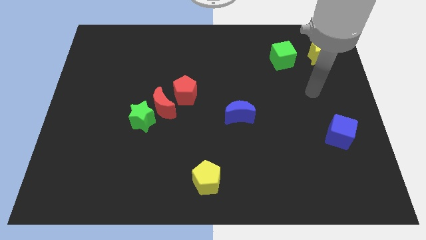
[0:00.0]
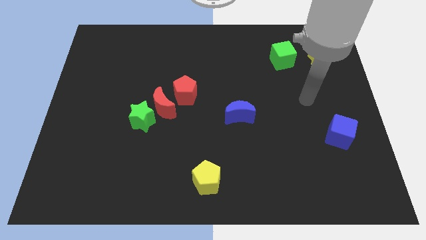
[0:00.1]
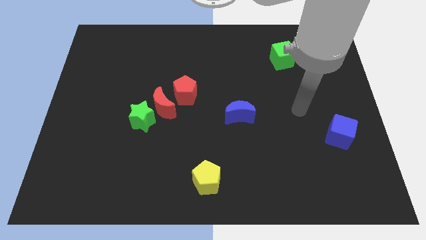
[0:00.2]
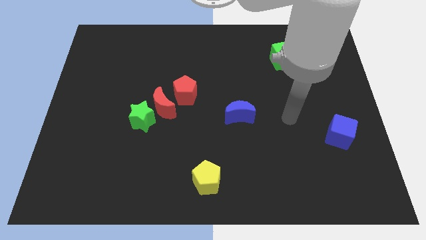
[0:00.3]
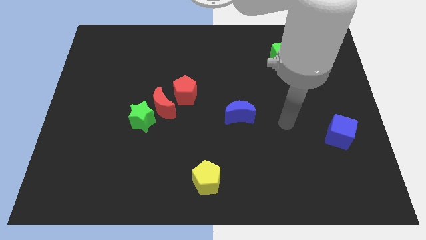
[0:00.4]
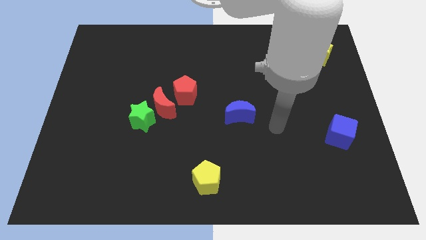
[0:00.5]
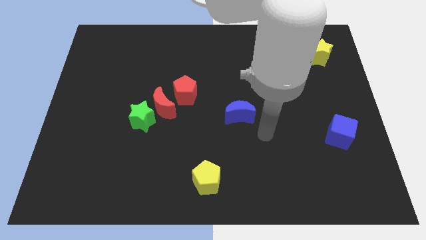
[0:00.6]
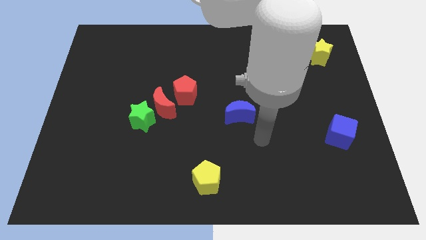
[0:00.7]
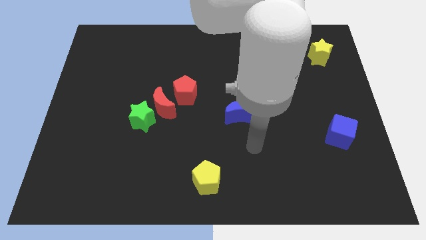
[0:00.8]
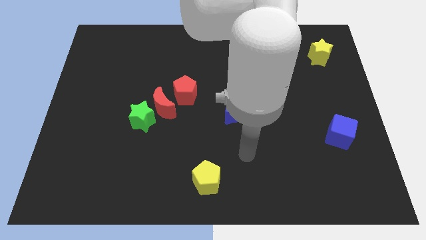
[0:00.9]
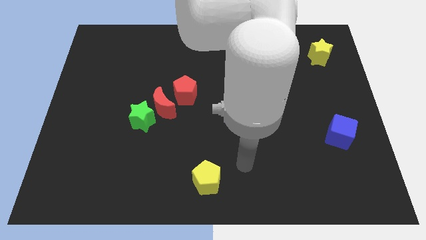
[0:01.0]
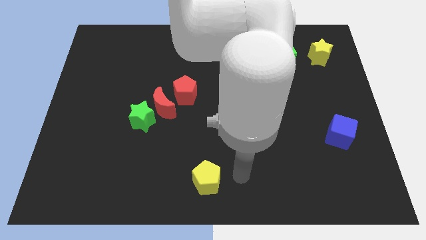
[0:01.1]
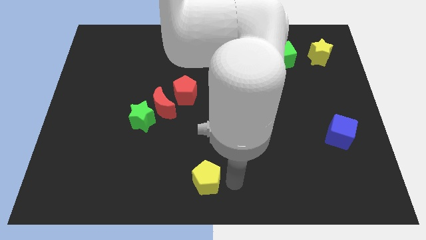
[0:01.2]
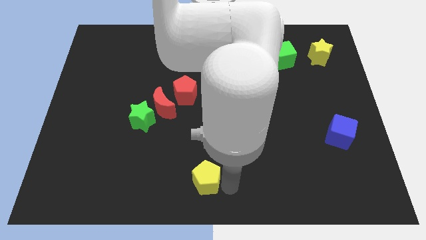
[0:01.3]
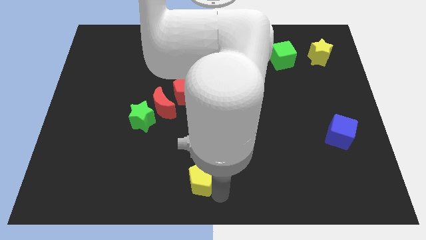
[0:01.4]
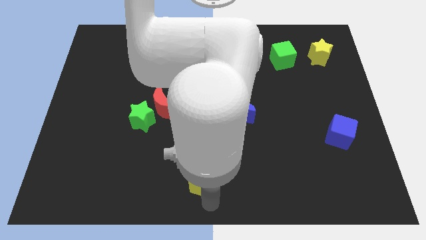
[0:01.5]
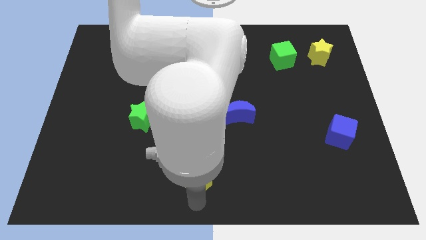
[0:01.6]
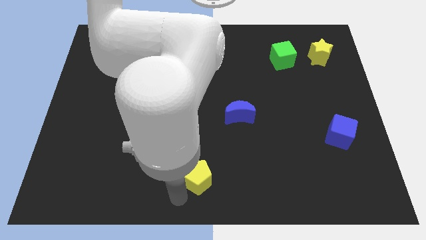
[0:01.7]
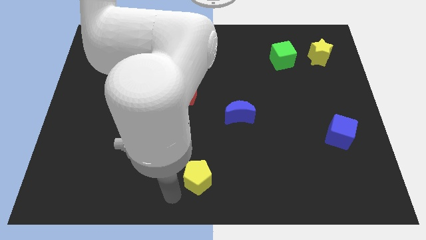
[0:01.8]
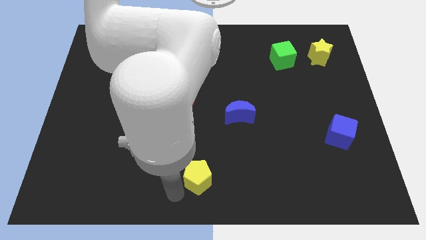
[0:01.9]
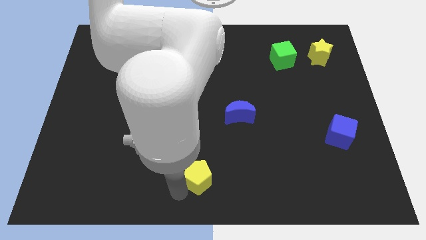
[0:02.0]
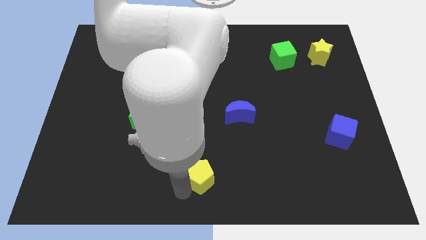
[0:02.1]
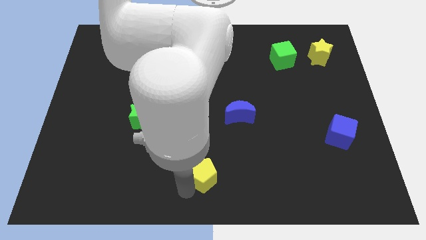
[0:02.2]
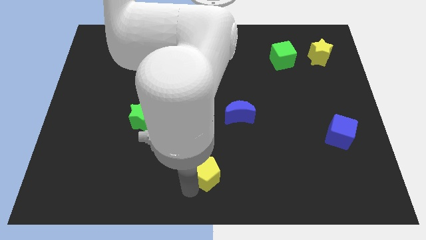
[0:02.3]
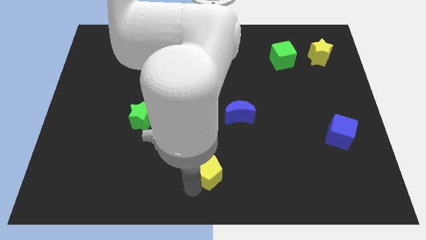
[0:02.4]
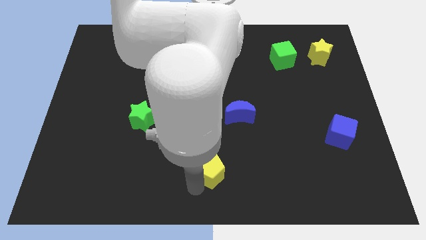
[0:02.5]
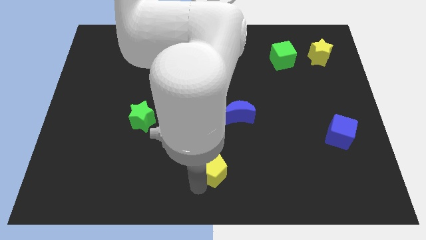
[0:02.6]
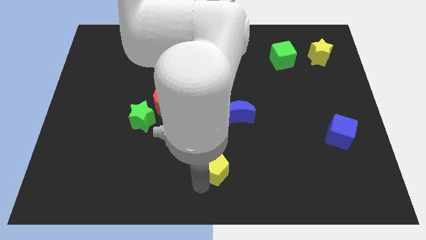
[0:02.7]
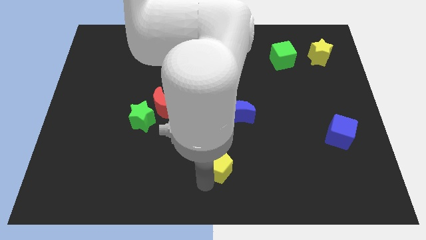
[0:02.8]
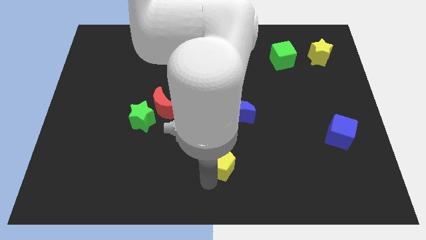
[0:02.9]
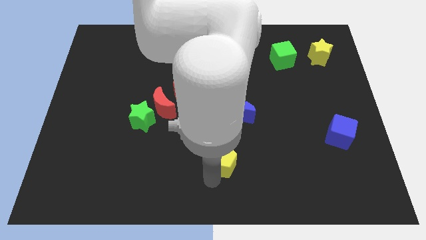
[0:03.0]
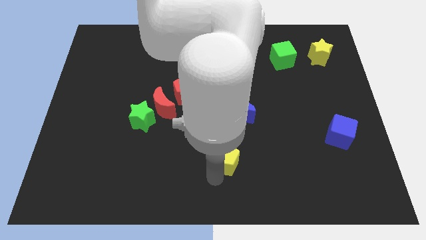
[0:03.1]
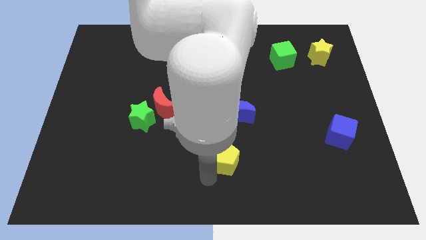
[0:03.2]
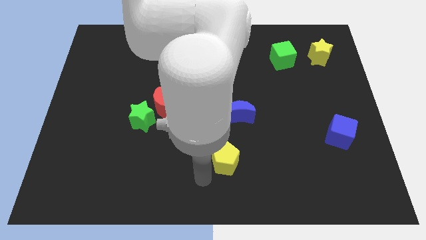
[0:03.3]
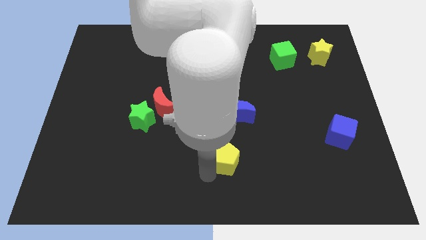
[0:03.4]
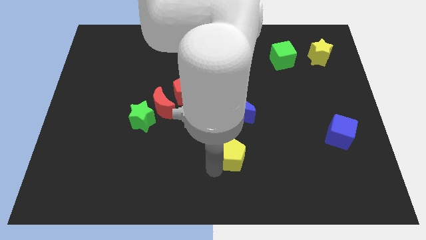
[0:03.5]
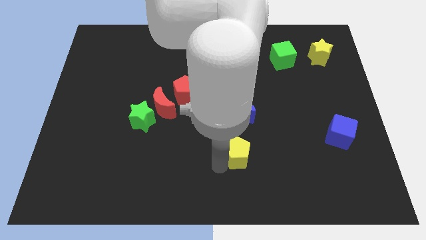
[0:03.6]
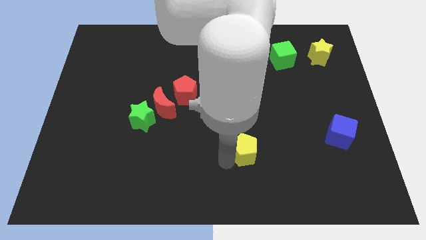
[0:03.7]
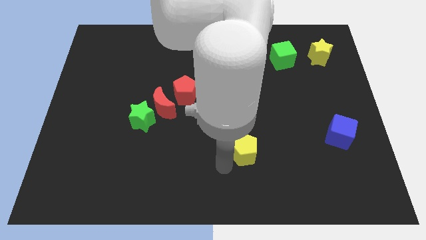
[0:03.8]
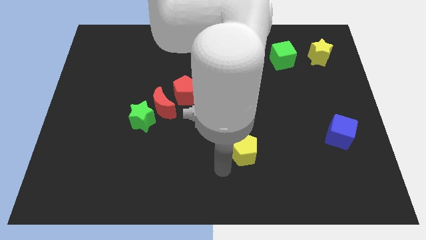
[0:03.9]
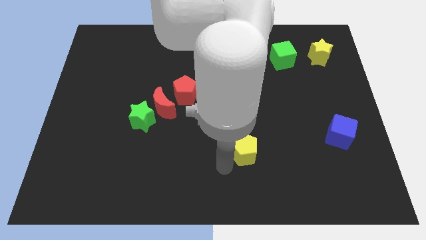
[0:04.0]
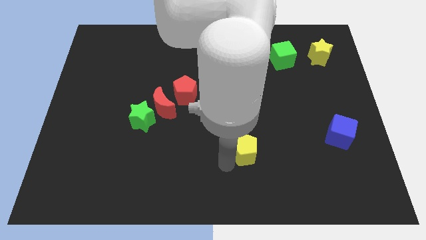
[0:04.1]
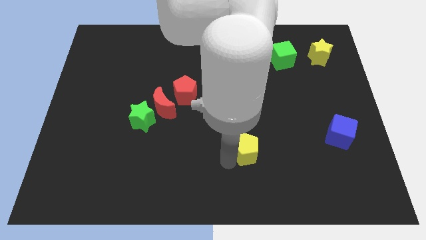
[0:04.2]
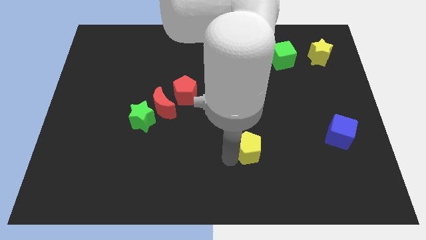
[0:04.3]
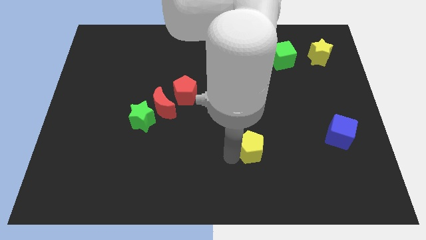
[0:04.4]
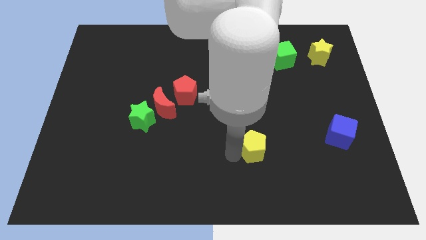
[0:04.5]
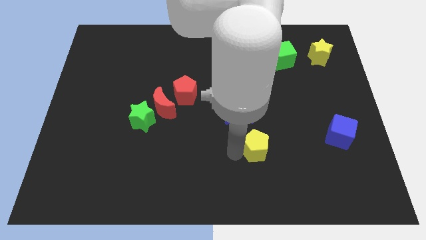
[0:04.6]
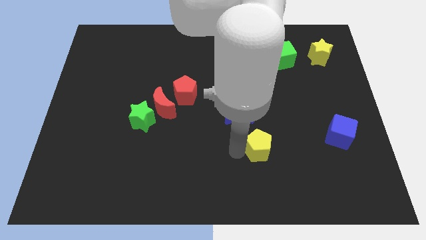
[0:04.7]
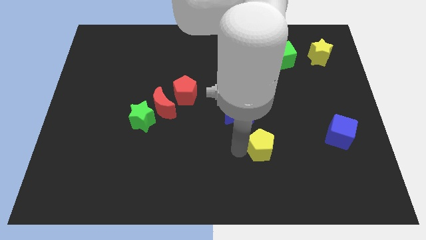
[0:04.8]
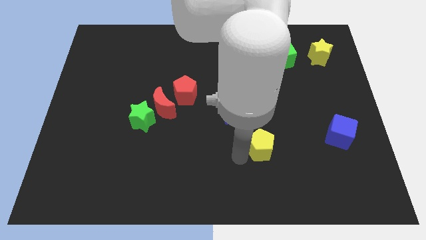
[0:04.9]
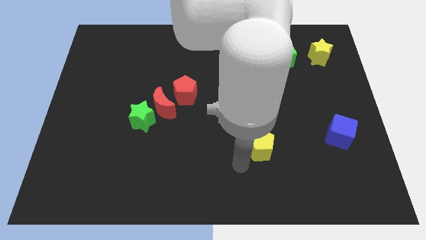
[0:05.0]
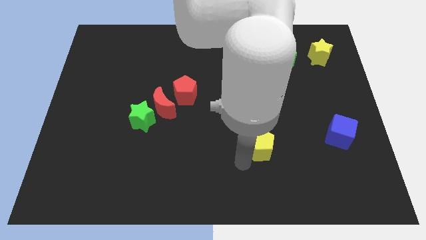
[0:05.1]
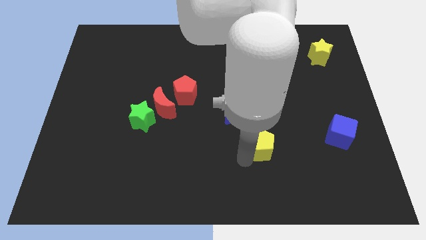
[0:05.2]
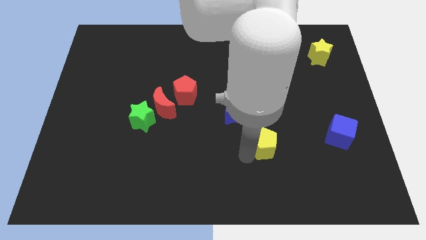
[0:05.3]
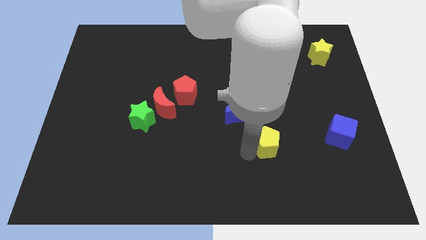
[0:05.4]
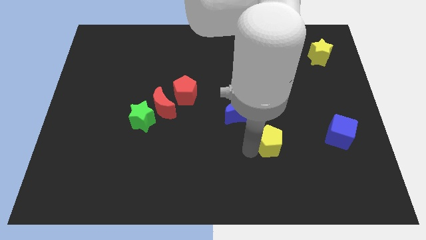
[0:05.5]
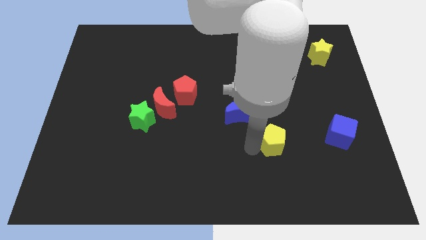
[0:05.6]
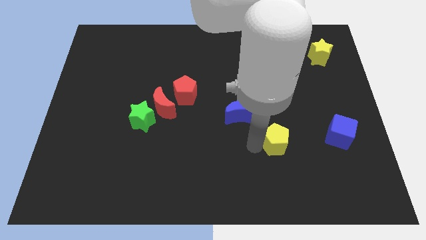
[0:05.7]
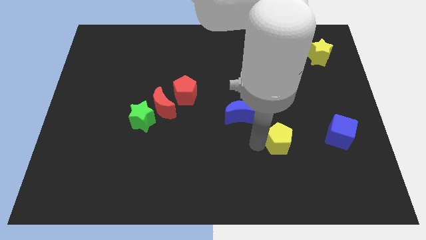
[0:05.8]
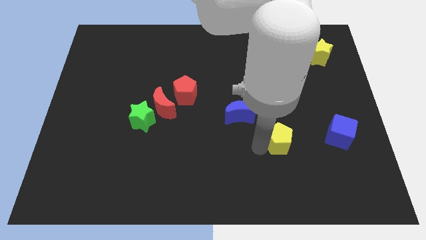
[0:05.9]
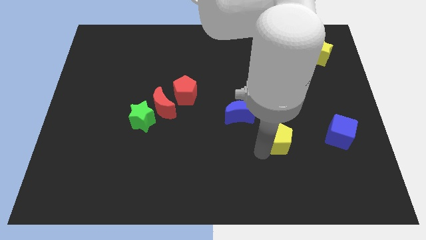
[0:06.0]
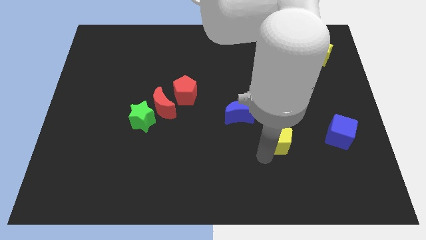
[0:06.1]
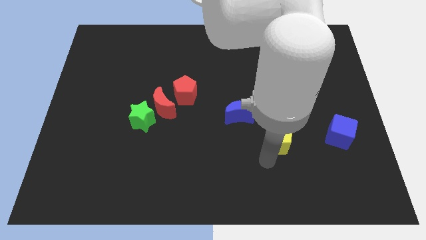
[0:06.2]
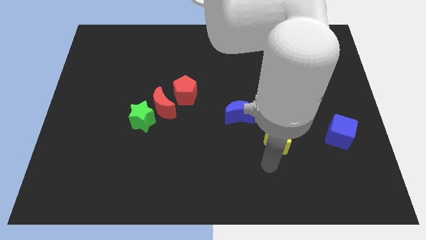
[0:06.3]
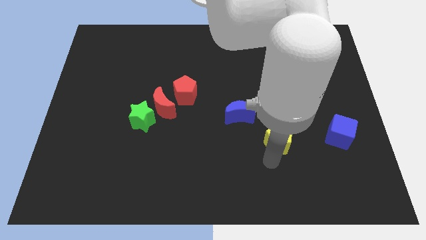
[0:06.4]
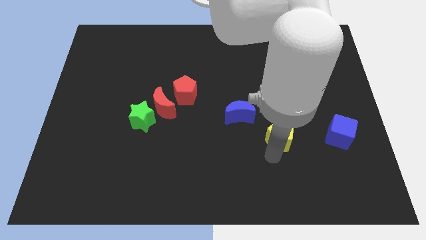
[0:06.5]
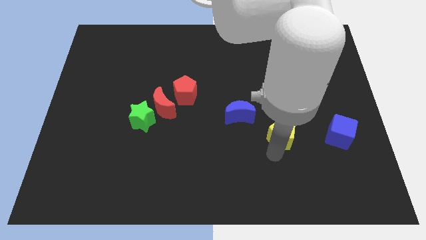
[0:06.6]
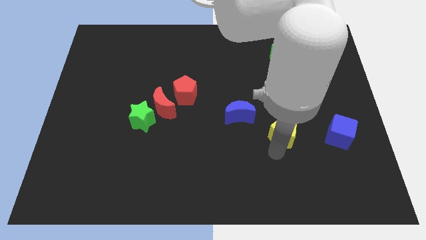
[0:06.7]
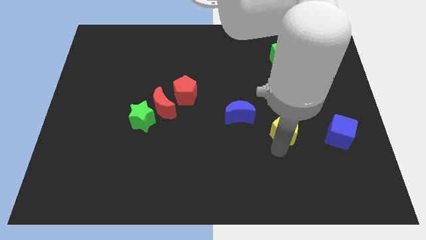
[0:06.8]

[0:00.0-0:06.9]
push the yellow pentagon upwards and to the right

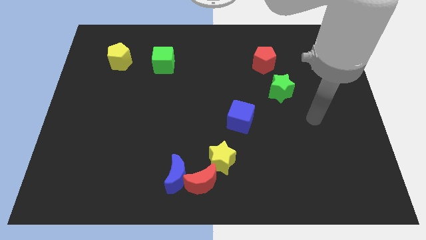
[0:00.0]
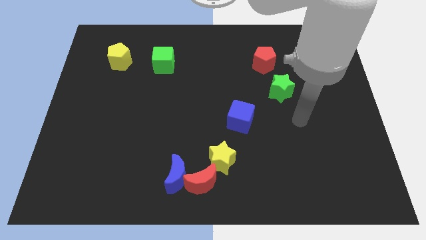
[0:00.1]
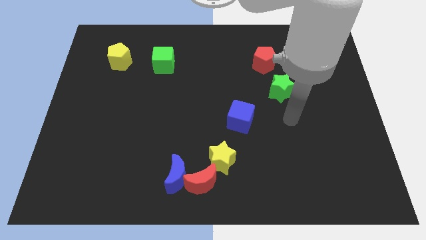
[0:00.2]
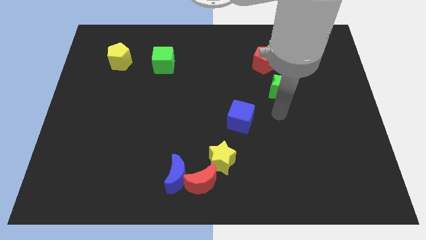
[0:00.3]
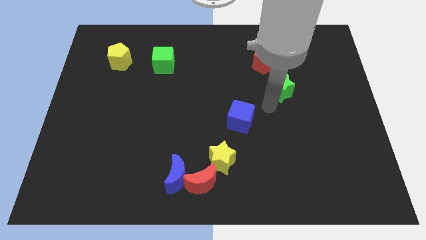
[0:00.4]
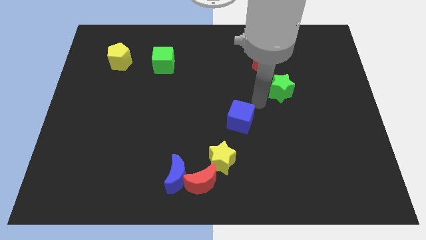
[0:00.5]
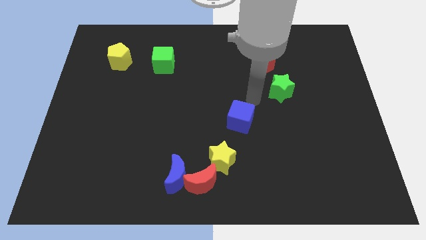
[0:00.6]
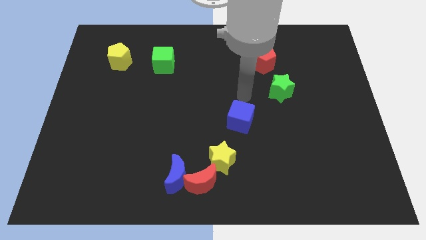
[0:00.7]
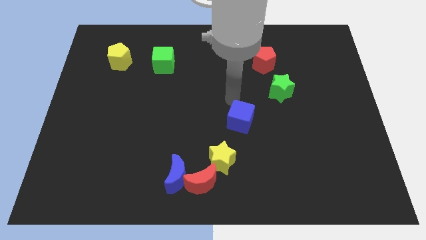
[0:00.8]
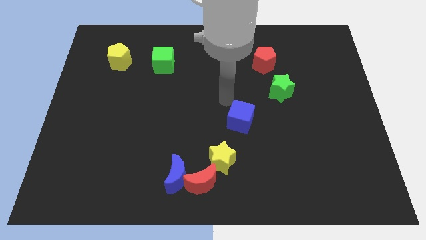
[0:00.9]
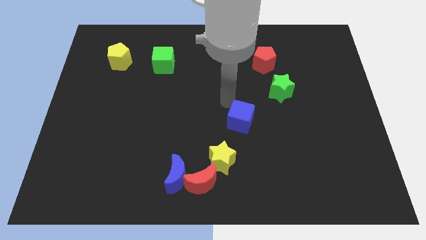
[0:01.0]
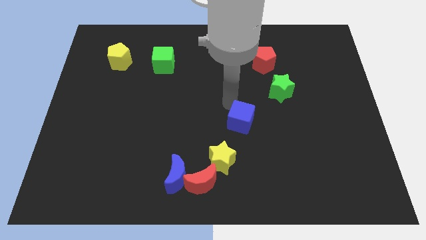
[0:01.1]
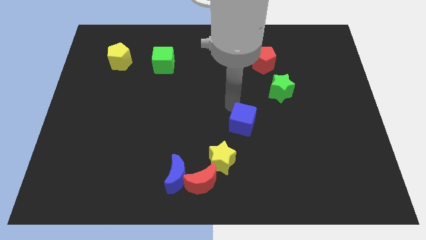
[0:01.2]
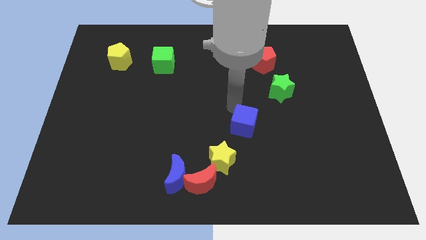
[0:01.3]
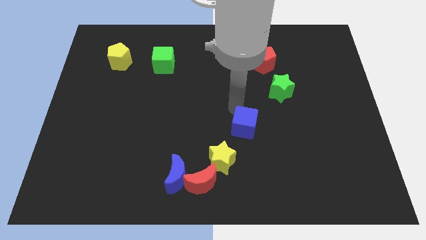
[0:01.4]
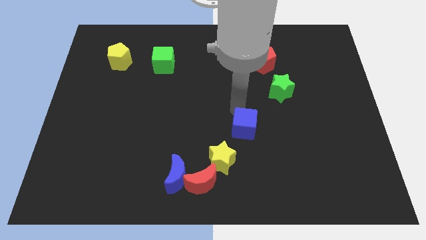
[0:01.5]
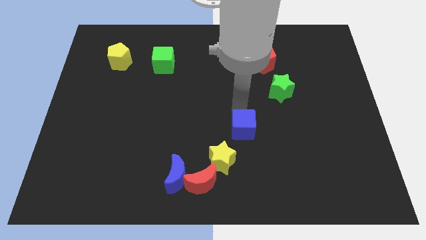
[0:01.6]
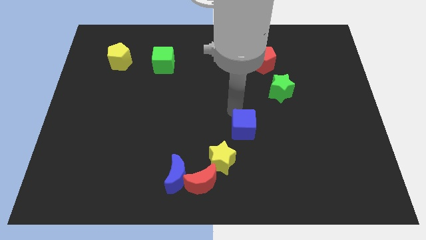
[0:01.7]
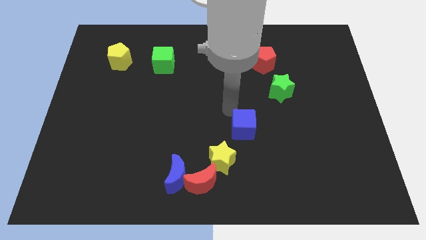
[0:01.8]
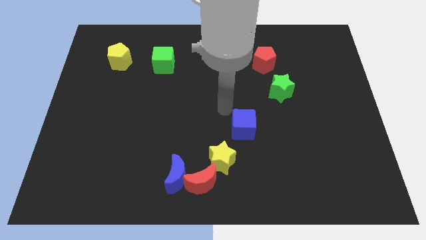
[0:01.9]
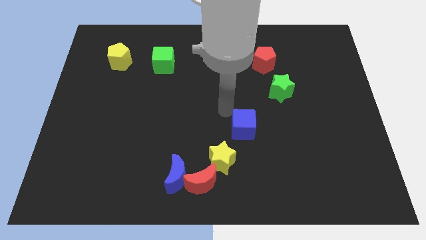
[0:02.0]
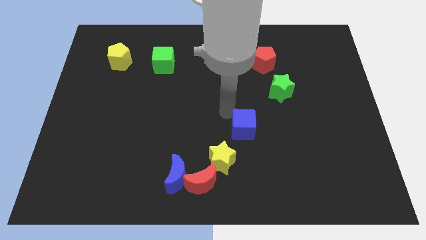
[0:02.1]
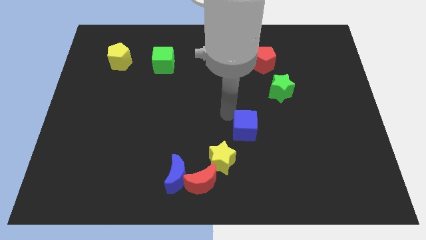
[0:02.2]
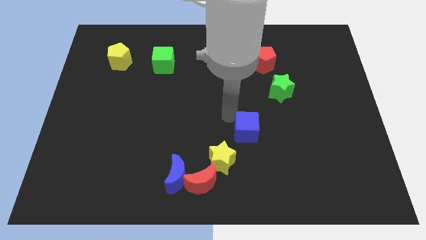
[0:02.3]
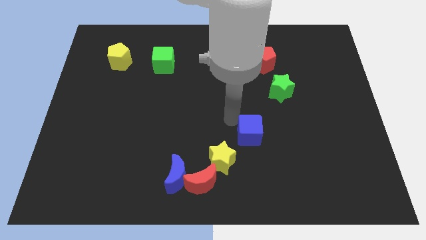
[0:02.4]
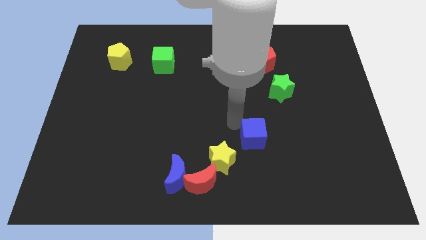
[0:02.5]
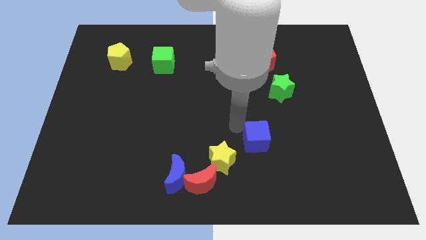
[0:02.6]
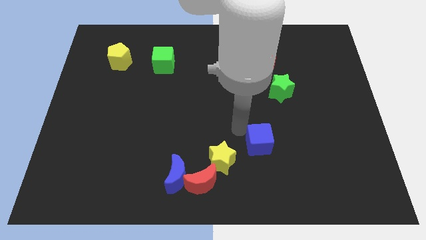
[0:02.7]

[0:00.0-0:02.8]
push the blue cube diagonally downwards and to the right slightly
